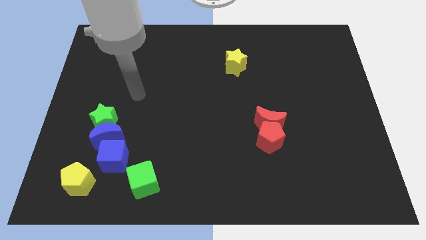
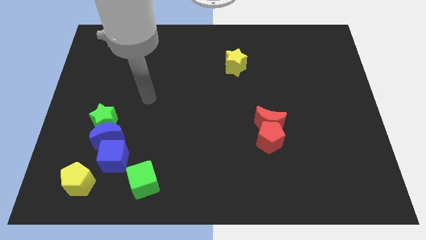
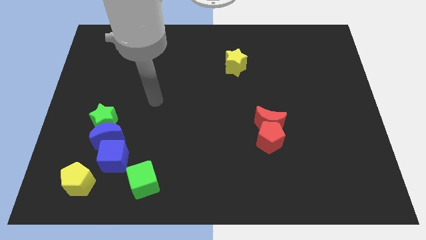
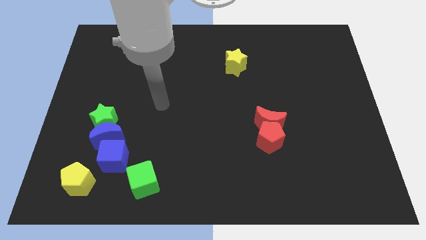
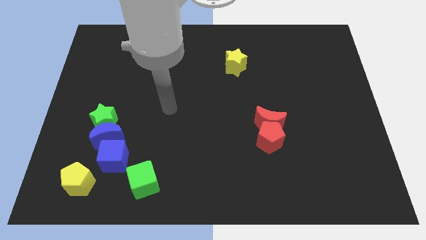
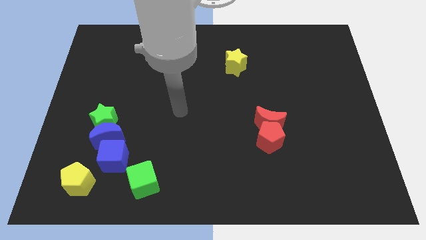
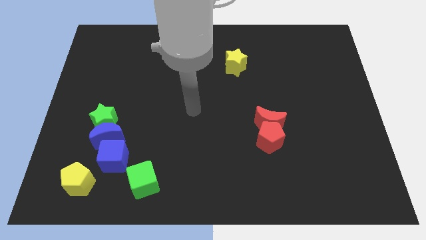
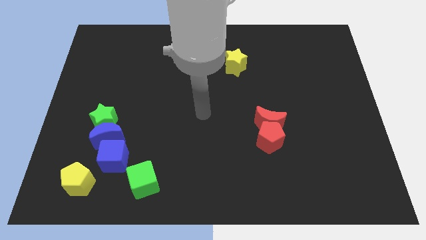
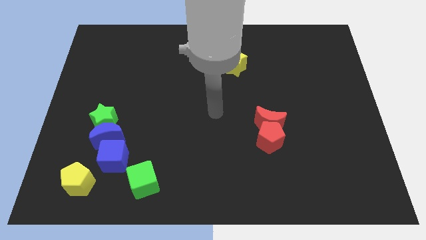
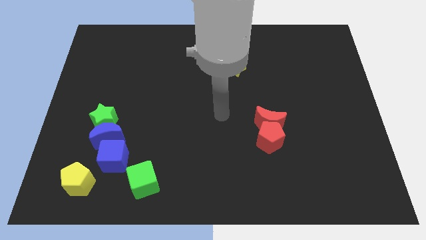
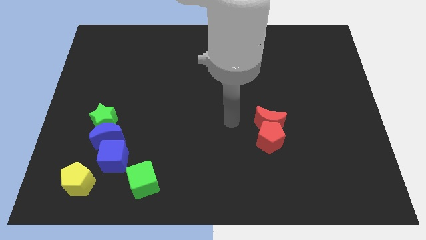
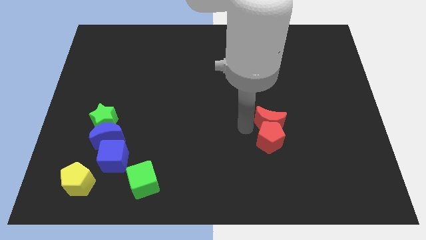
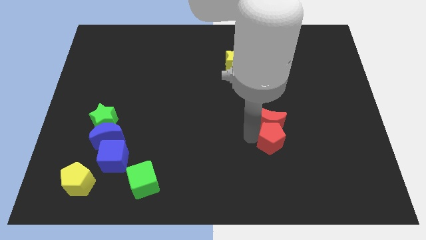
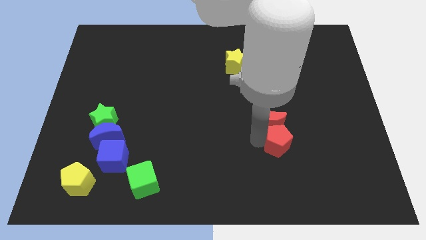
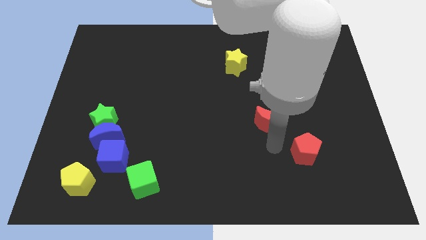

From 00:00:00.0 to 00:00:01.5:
separate the red moon from the red pentagon

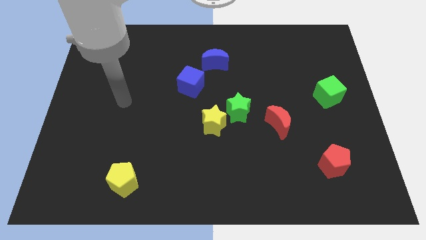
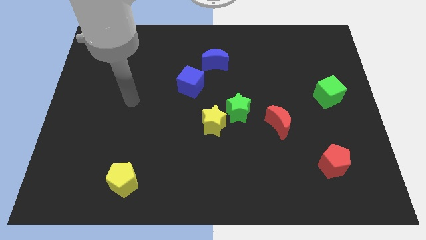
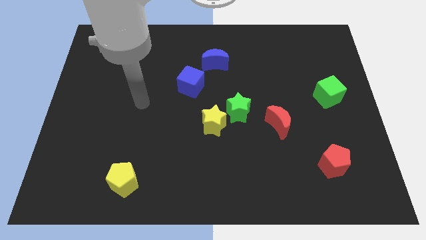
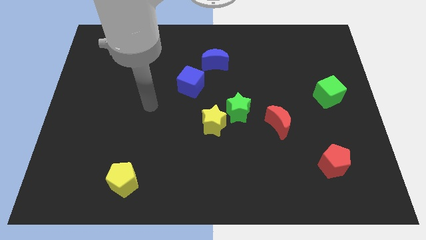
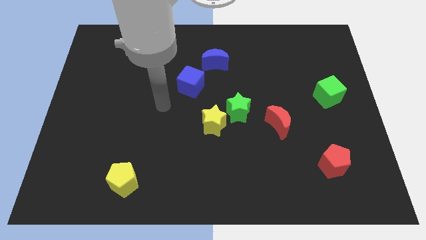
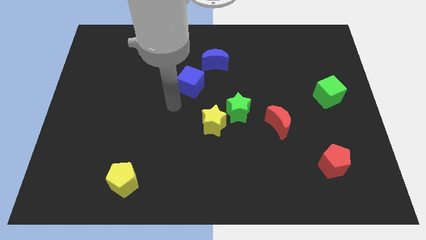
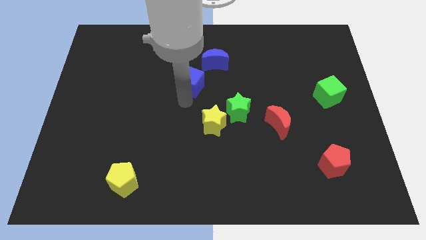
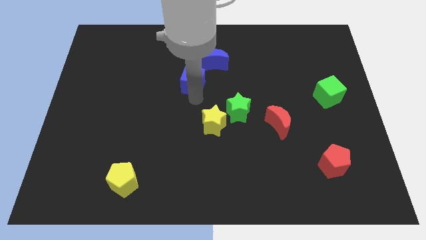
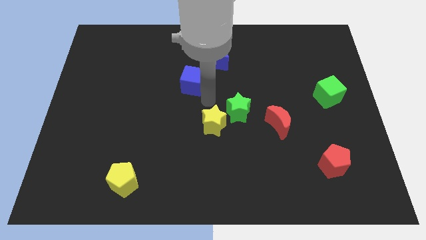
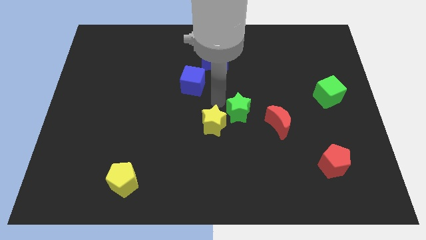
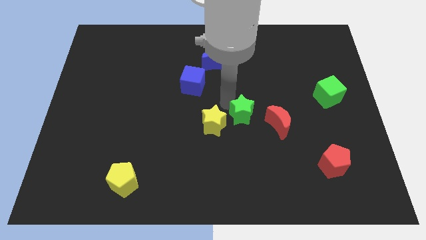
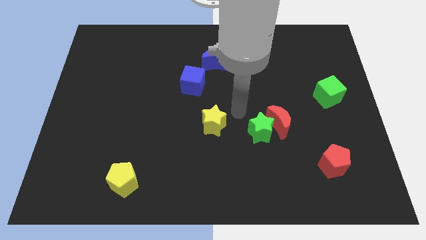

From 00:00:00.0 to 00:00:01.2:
pull the yellow star apart from the green star

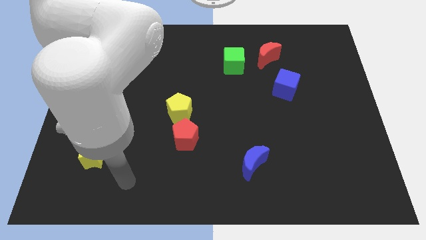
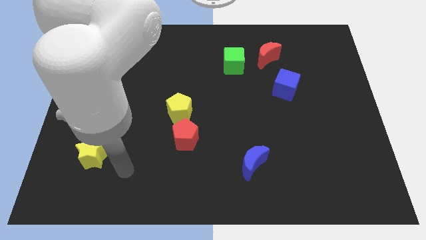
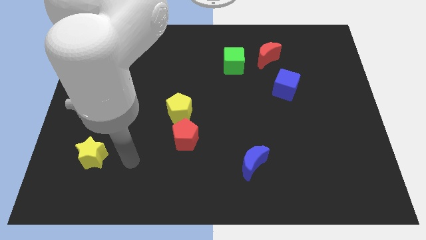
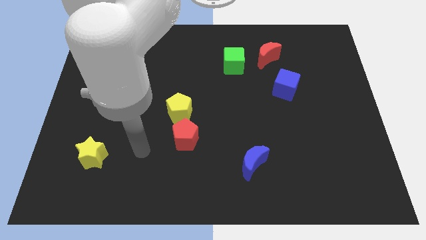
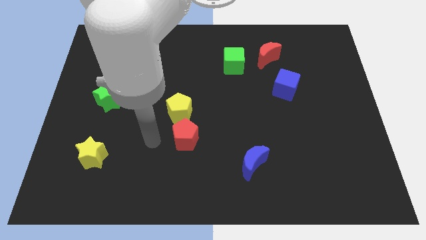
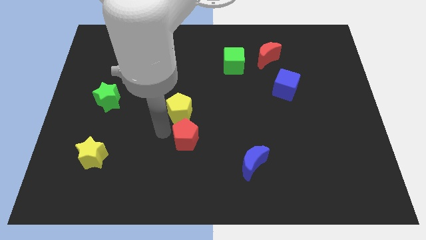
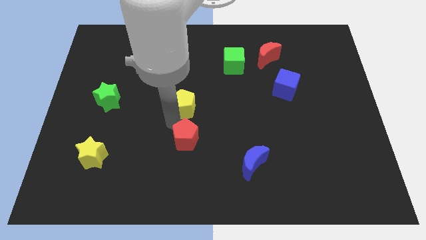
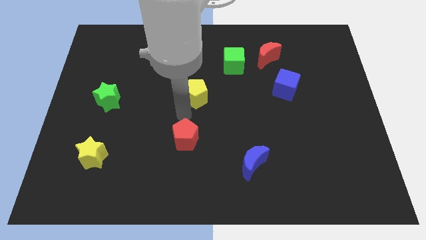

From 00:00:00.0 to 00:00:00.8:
pull the red pentagon apart from the yellow pentagon

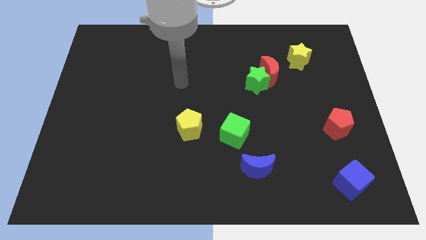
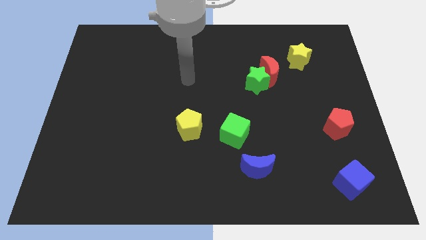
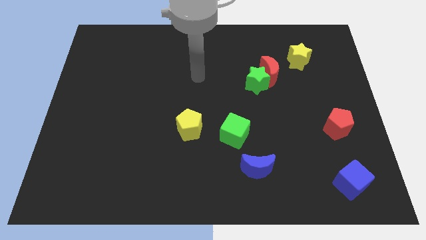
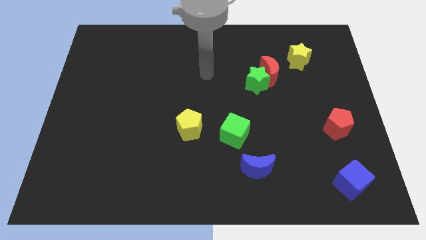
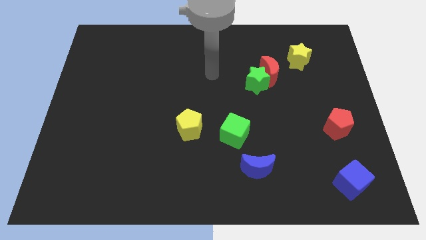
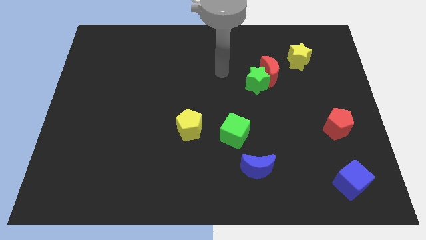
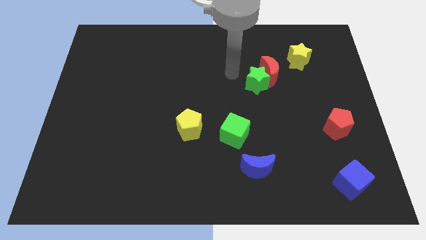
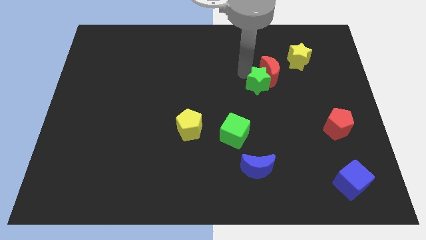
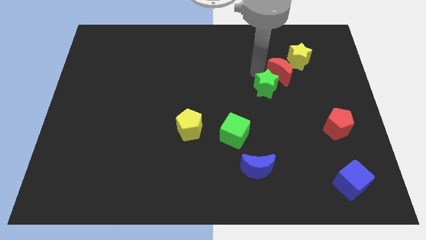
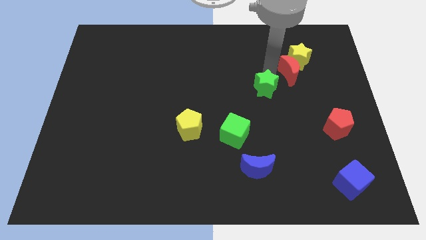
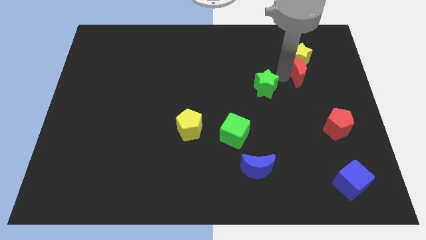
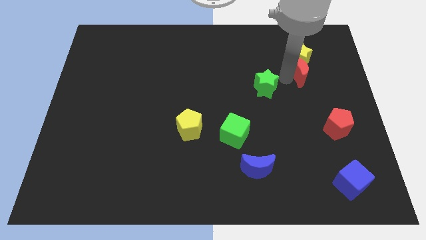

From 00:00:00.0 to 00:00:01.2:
separate the green star from the red moon

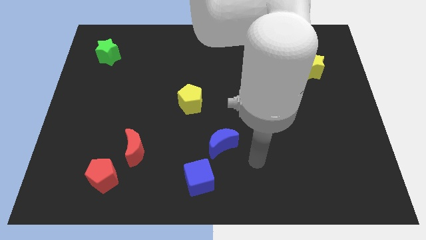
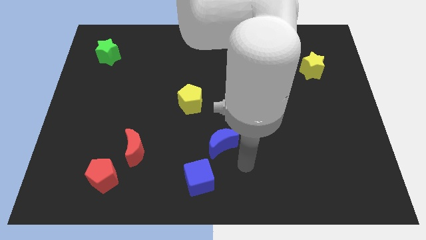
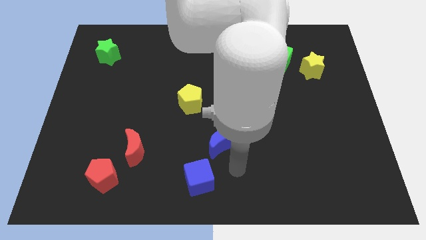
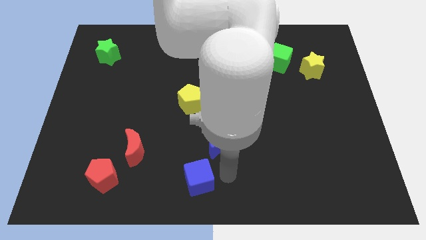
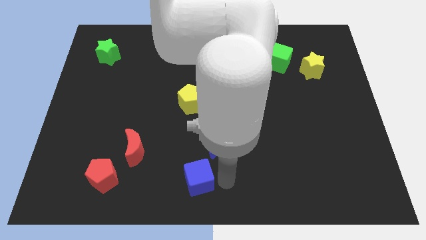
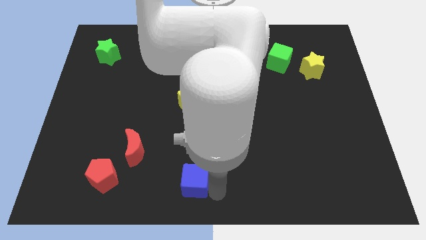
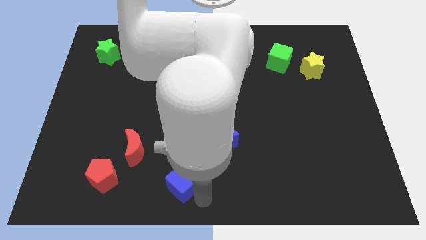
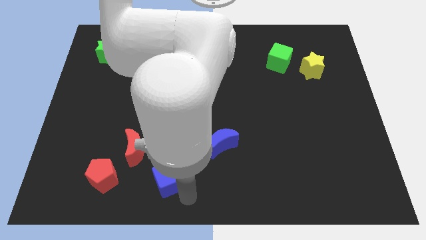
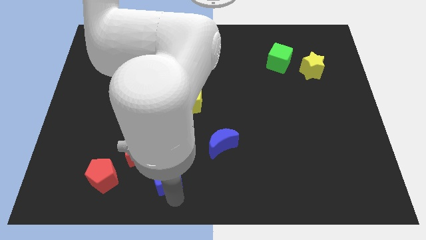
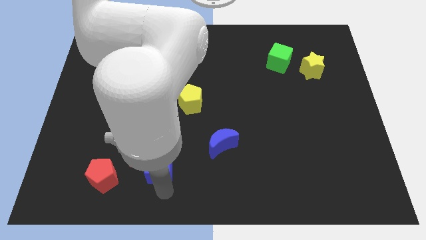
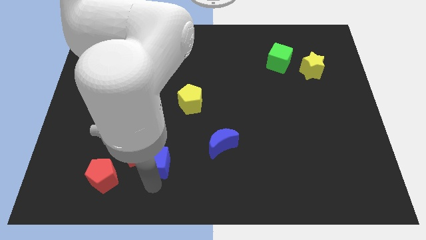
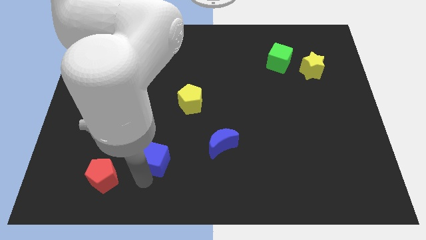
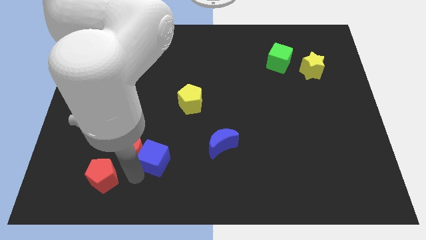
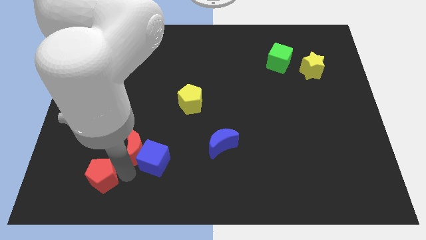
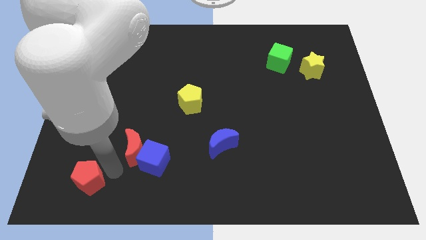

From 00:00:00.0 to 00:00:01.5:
move the red moon away from the red pentagon

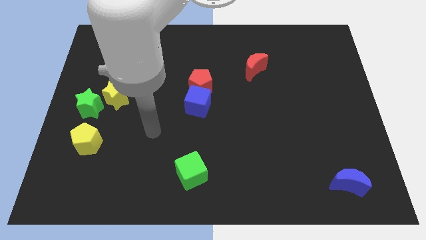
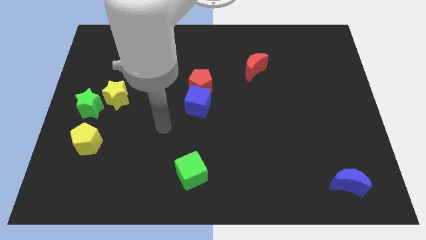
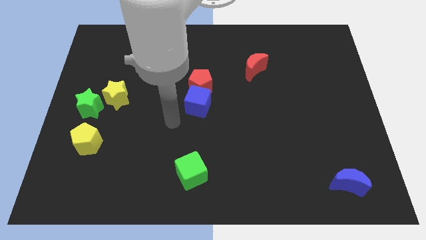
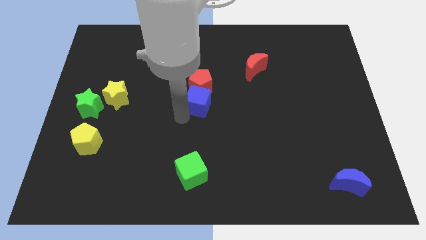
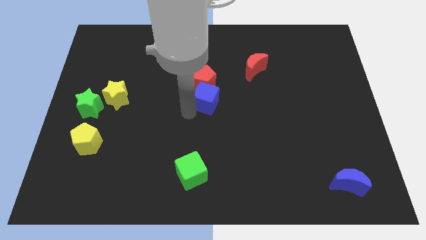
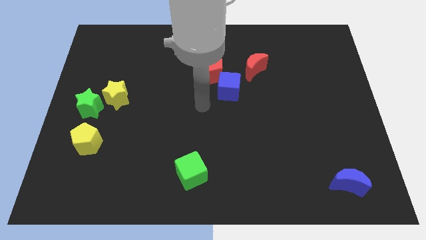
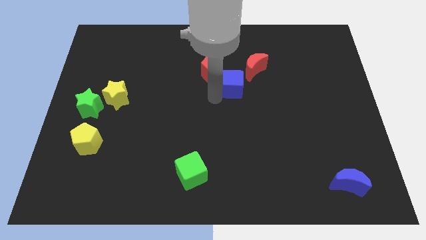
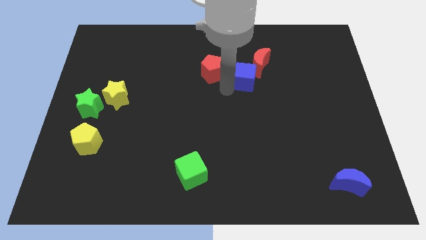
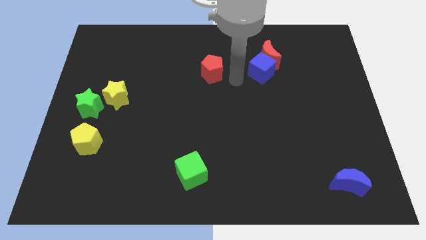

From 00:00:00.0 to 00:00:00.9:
separate the red pentagon from the blue cube

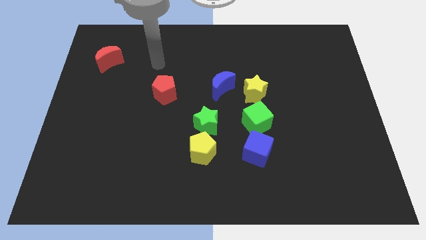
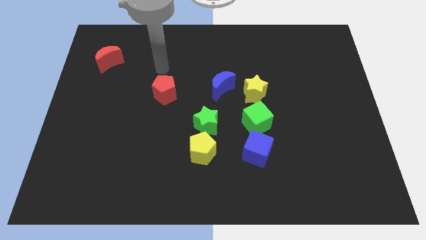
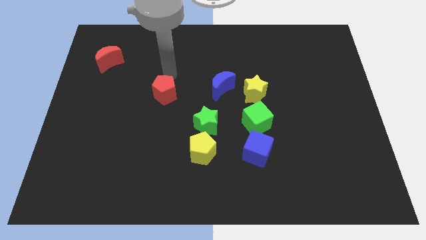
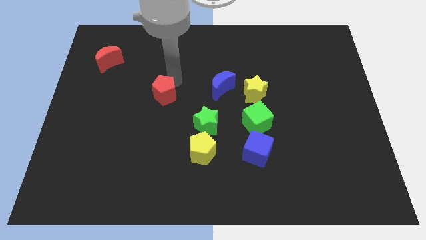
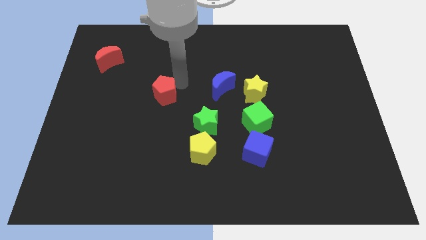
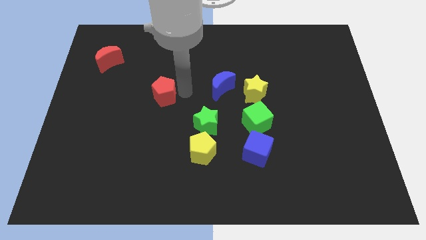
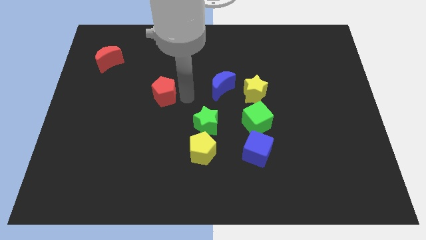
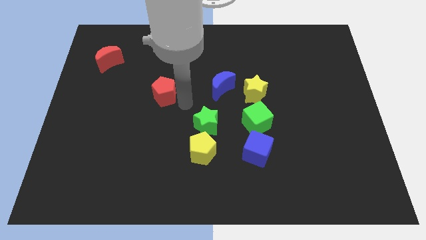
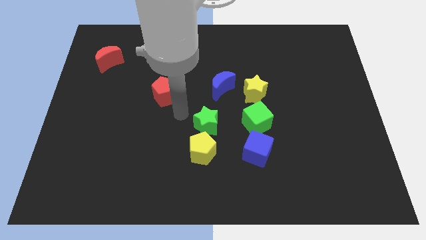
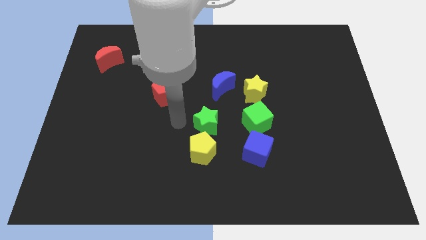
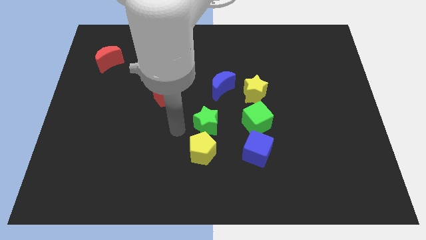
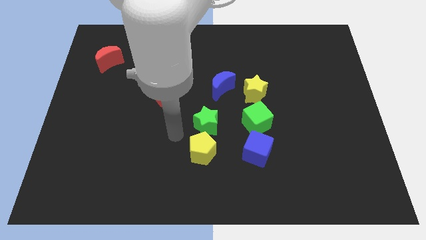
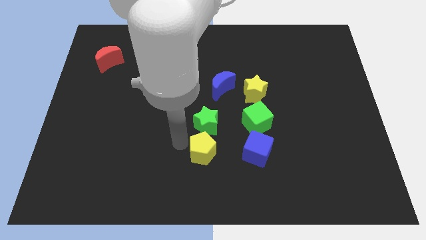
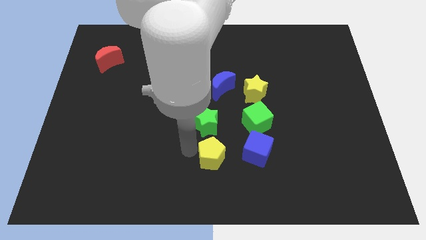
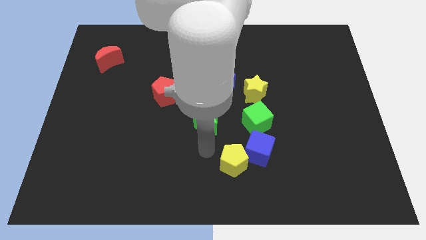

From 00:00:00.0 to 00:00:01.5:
separate the green star from the yellow pentagon

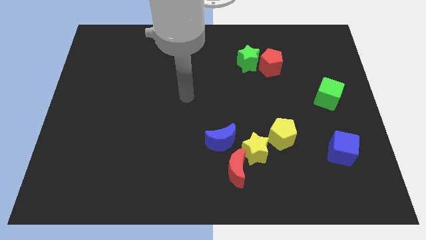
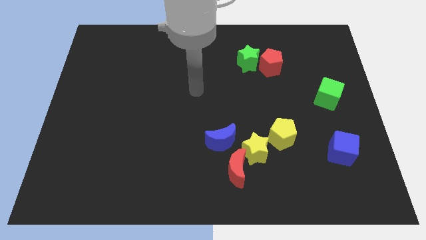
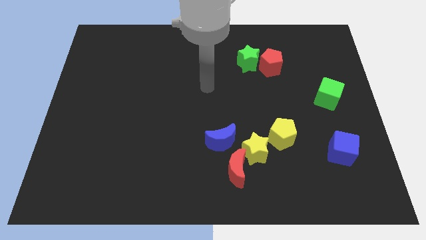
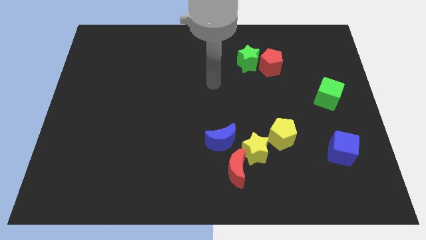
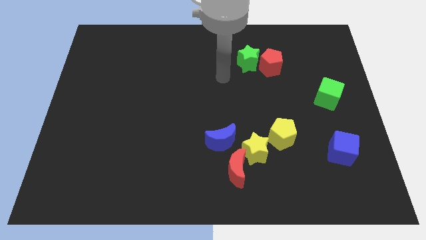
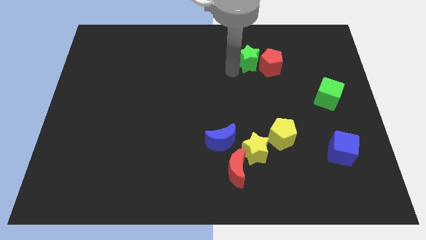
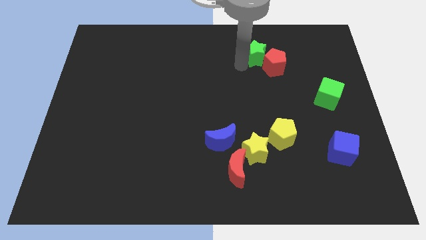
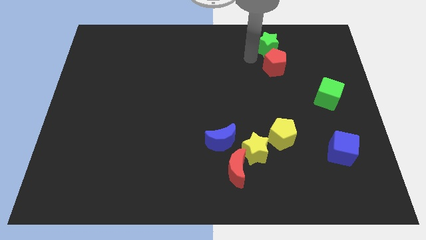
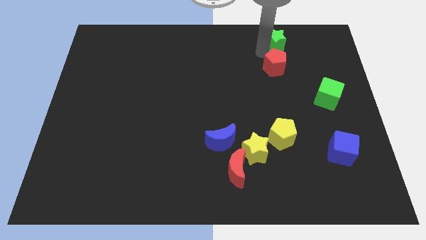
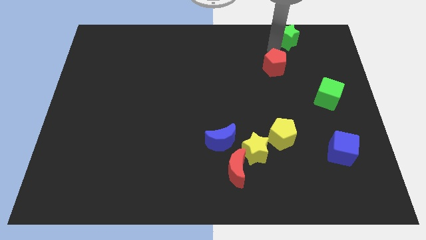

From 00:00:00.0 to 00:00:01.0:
pull the red pentagon apart from the green star
